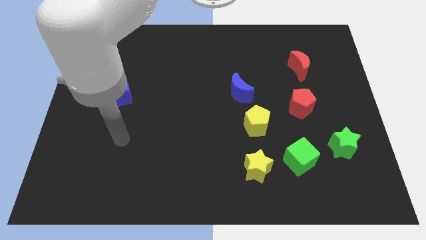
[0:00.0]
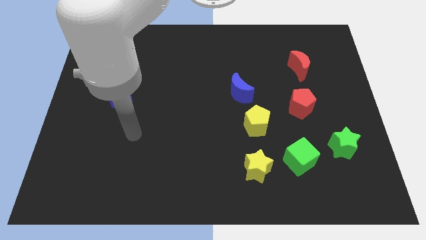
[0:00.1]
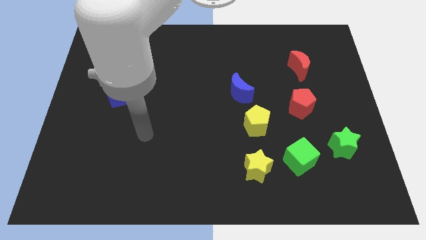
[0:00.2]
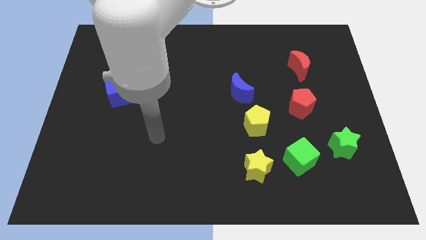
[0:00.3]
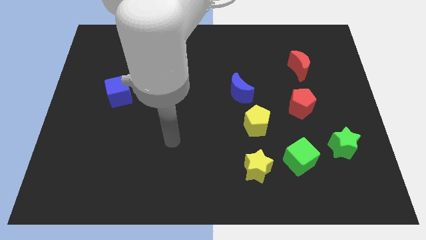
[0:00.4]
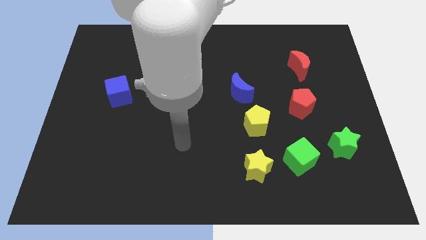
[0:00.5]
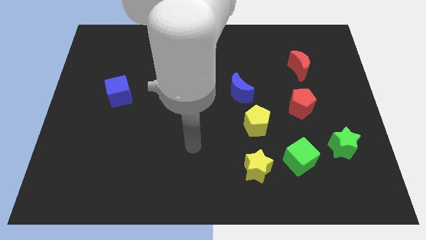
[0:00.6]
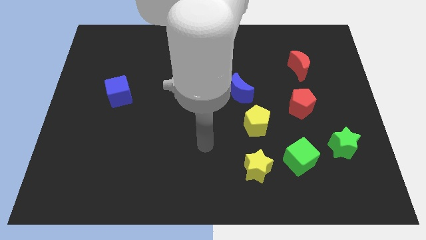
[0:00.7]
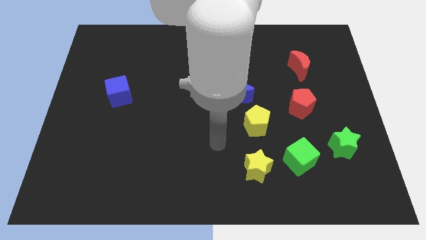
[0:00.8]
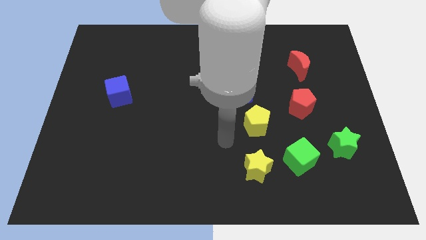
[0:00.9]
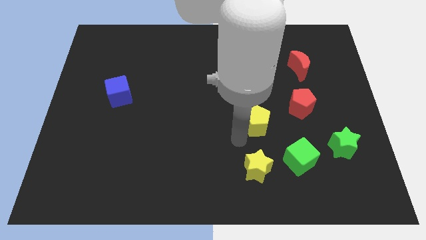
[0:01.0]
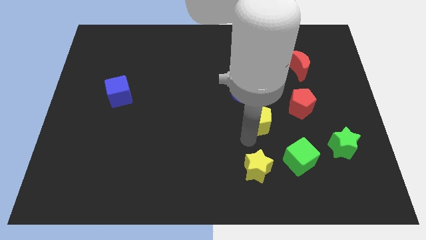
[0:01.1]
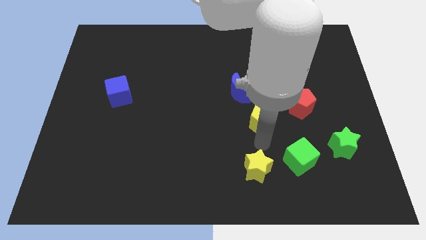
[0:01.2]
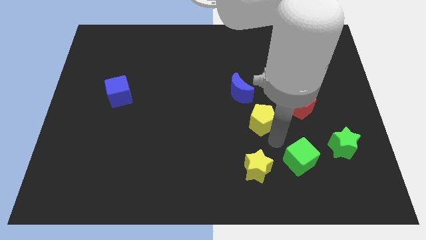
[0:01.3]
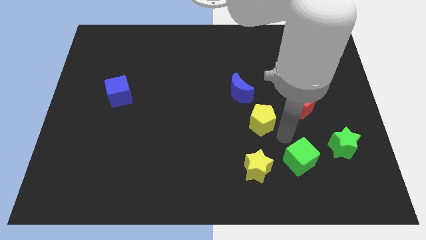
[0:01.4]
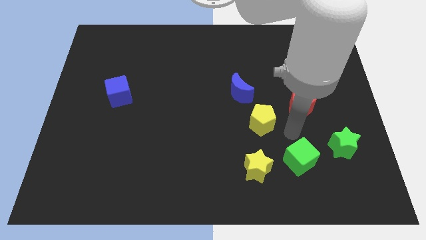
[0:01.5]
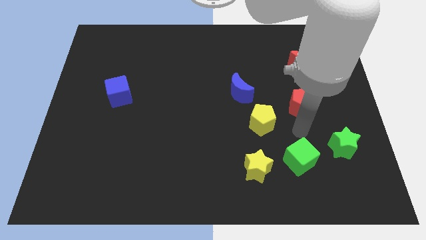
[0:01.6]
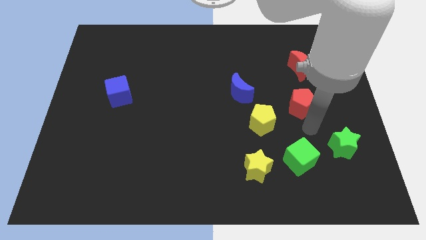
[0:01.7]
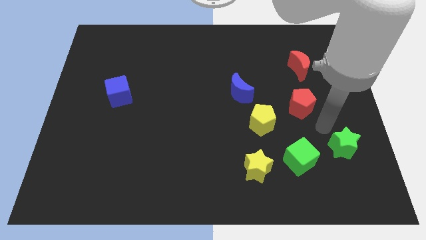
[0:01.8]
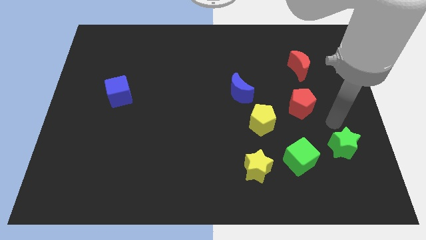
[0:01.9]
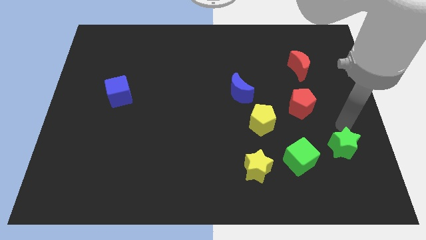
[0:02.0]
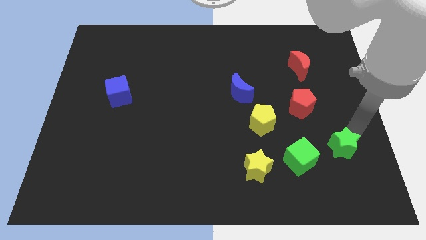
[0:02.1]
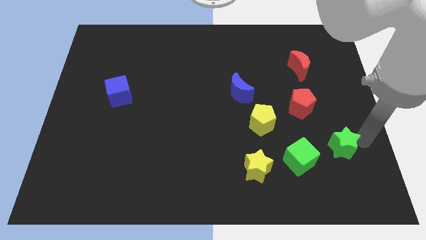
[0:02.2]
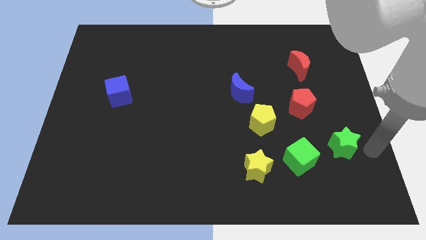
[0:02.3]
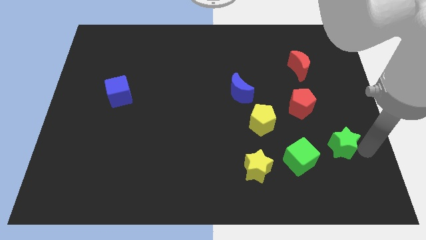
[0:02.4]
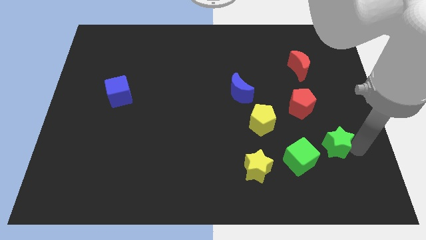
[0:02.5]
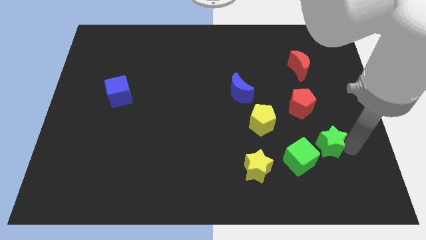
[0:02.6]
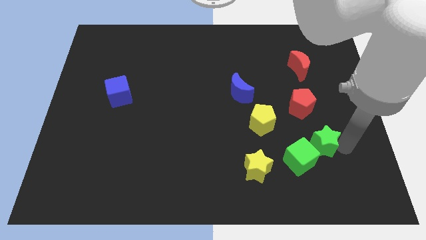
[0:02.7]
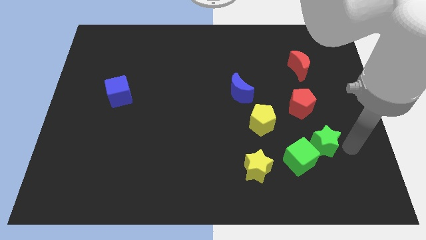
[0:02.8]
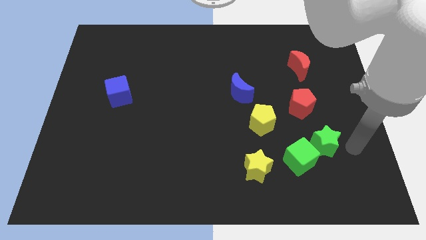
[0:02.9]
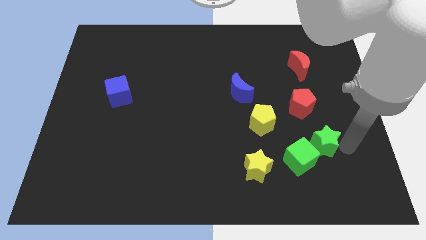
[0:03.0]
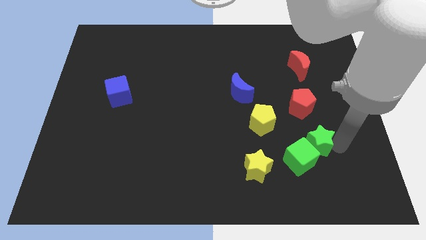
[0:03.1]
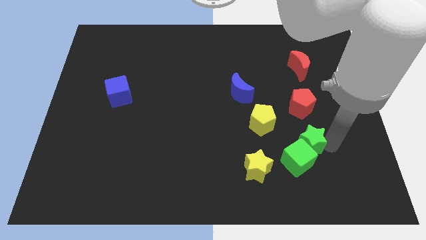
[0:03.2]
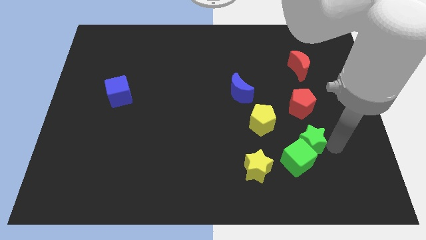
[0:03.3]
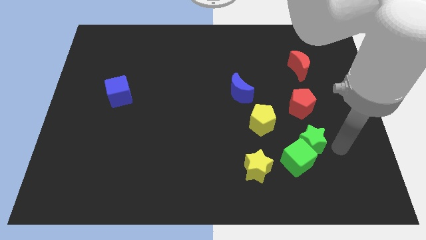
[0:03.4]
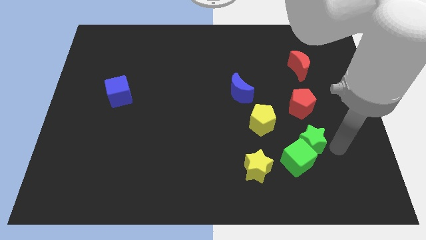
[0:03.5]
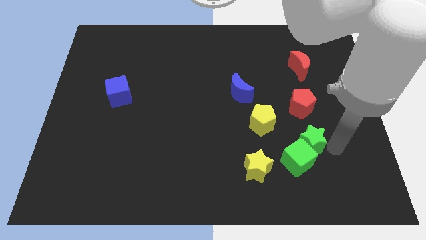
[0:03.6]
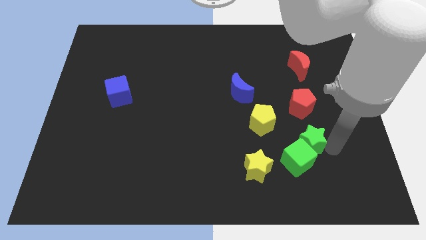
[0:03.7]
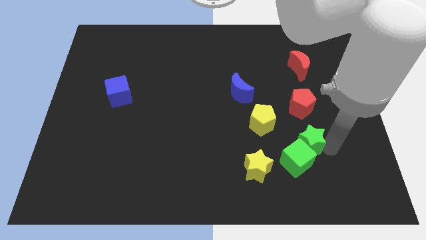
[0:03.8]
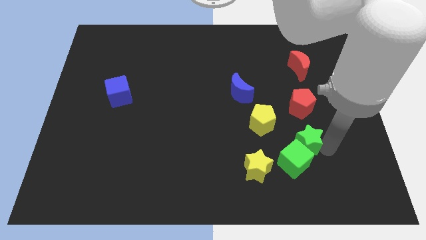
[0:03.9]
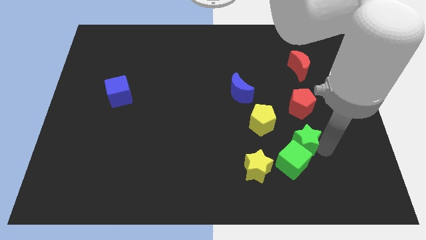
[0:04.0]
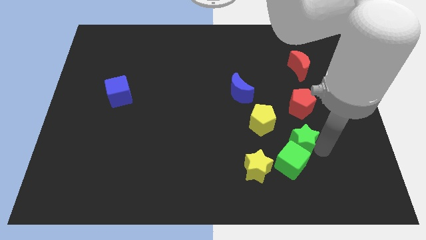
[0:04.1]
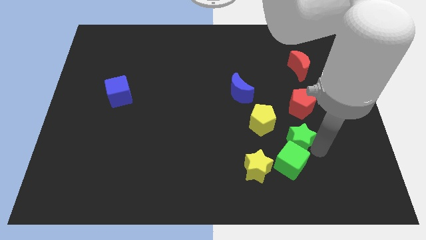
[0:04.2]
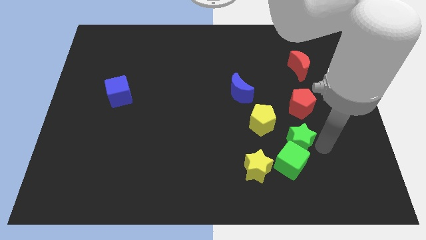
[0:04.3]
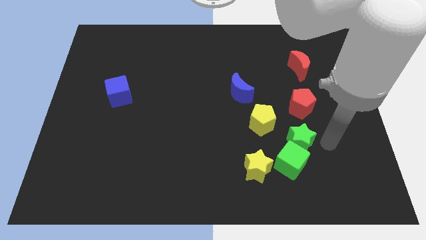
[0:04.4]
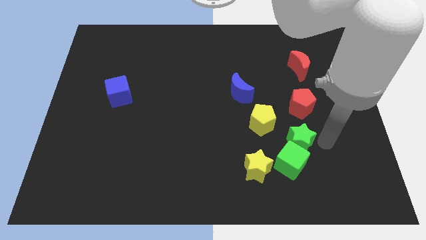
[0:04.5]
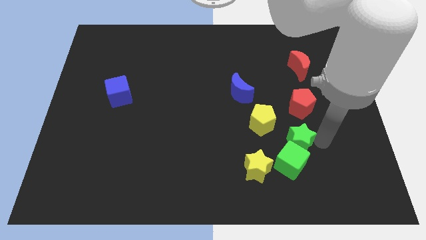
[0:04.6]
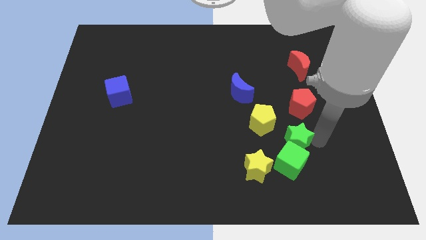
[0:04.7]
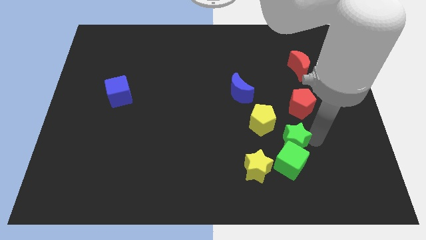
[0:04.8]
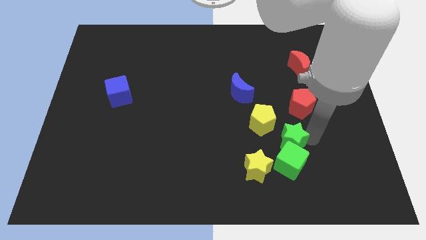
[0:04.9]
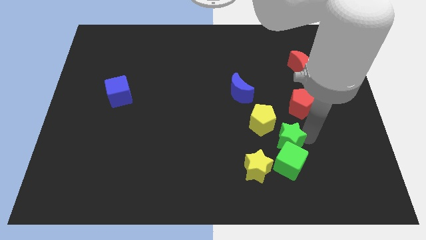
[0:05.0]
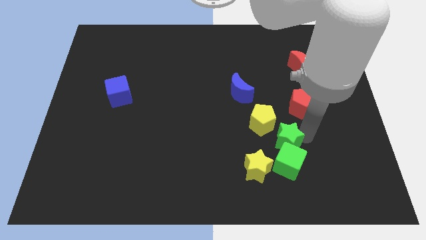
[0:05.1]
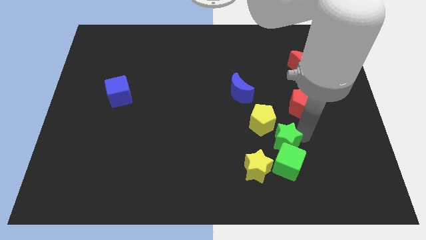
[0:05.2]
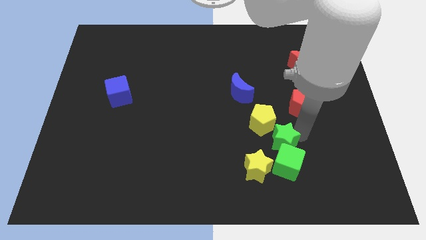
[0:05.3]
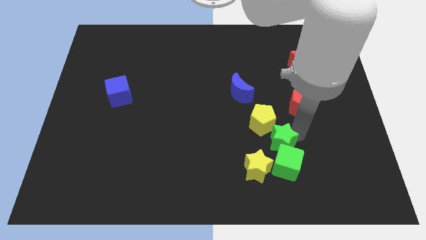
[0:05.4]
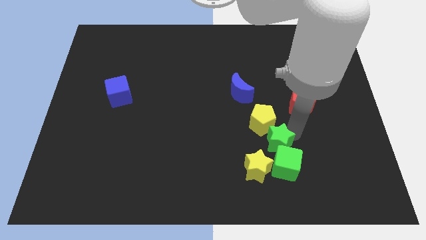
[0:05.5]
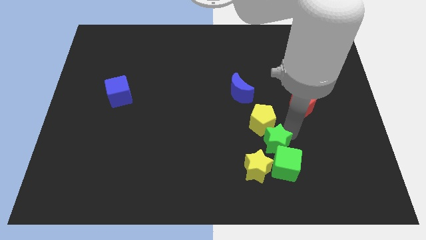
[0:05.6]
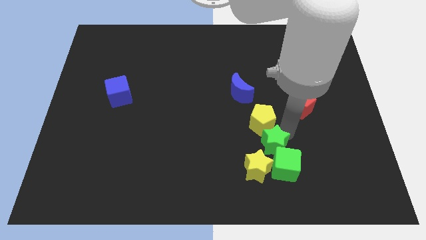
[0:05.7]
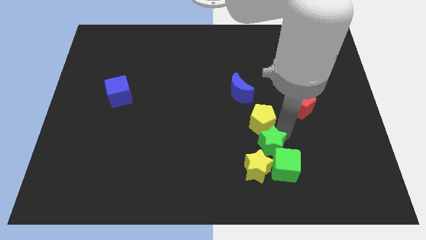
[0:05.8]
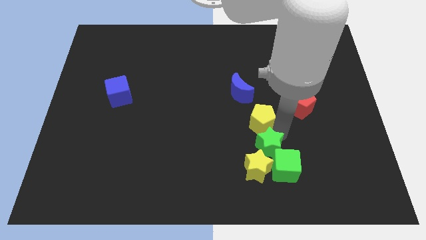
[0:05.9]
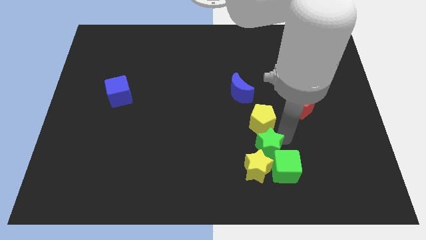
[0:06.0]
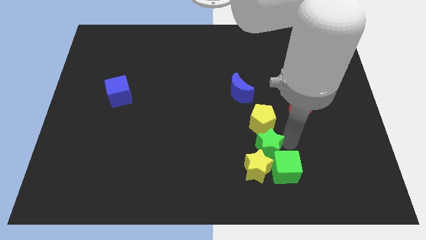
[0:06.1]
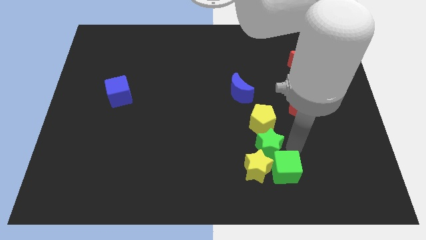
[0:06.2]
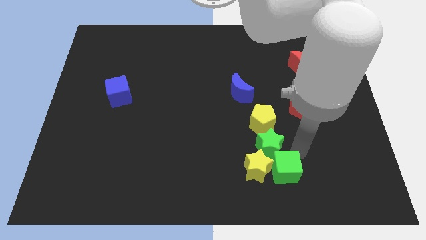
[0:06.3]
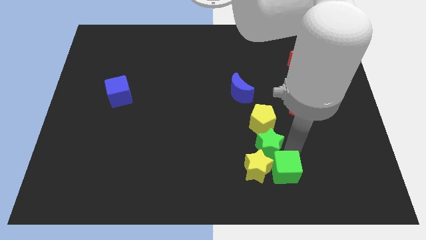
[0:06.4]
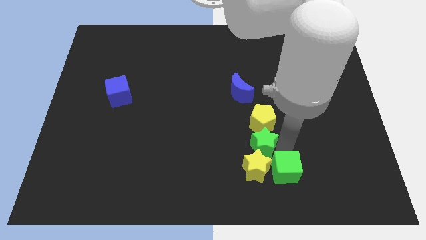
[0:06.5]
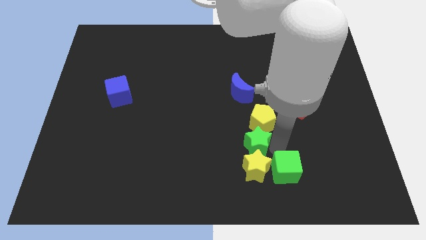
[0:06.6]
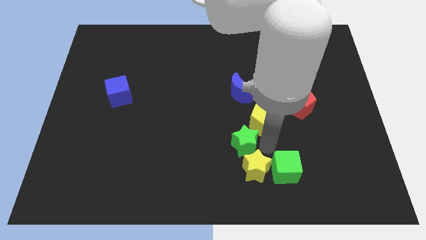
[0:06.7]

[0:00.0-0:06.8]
slide the green star left

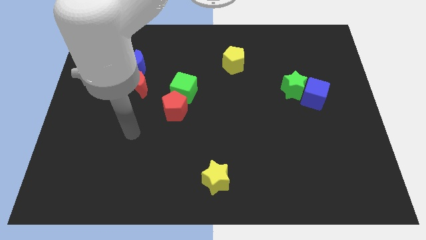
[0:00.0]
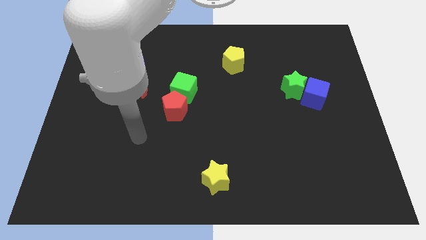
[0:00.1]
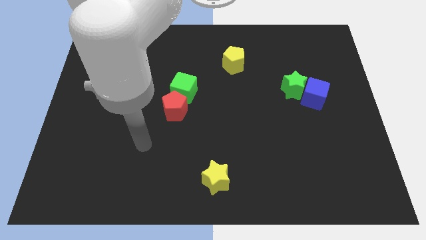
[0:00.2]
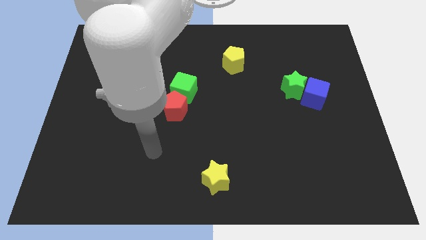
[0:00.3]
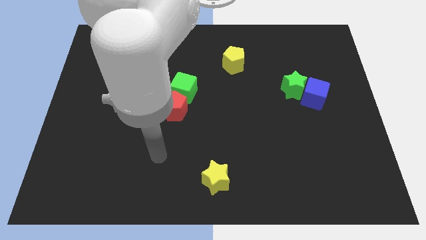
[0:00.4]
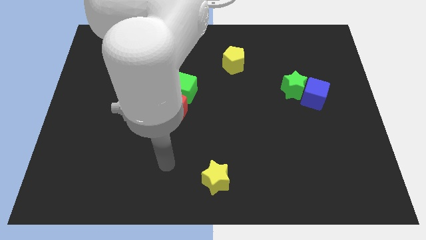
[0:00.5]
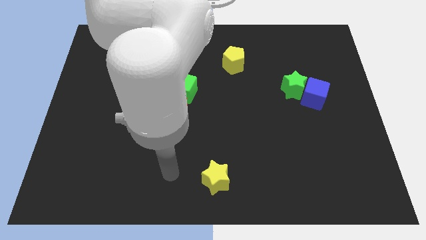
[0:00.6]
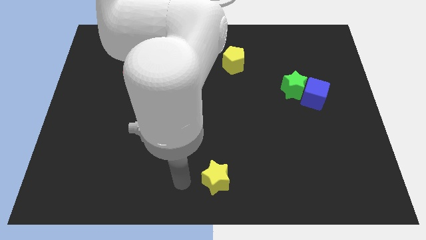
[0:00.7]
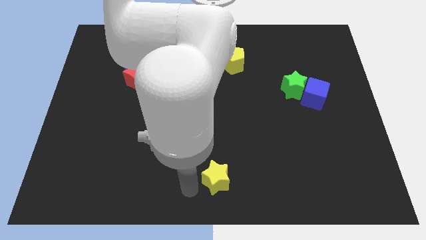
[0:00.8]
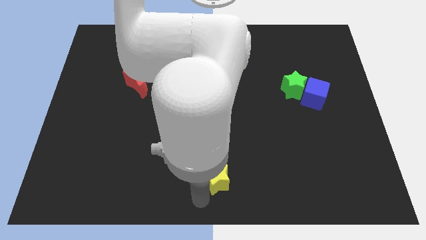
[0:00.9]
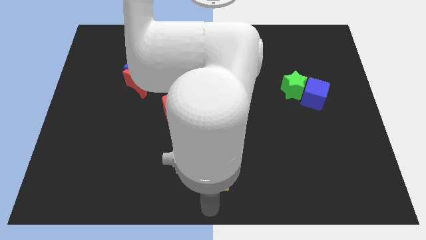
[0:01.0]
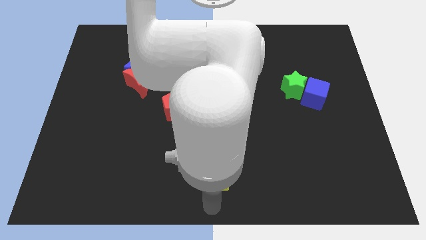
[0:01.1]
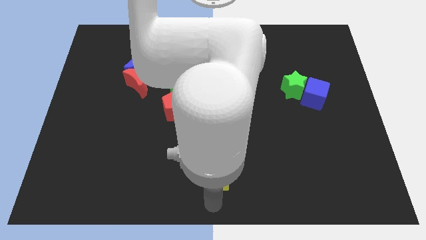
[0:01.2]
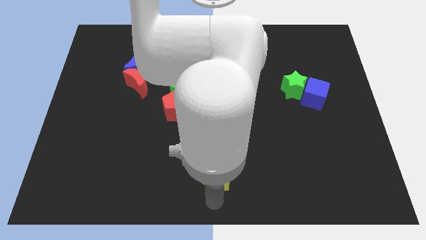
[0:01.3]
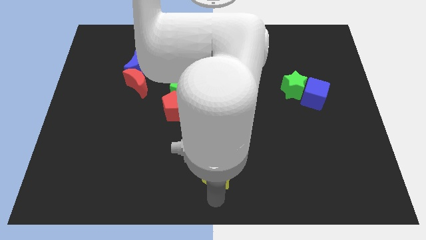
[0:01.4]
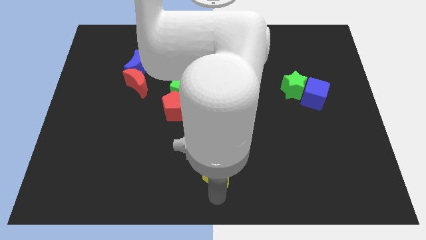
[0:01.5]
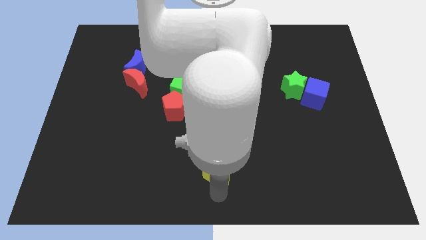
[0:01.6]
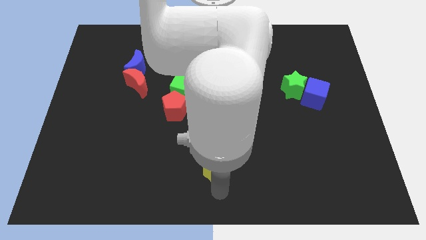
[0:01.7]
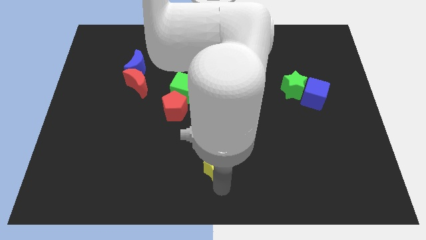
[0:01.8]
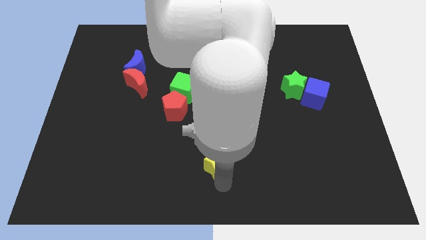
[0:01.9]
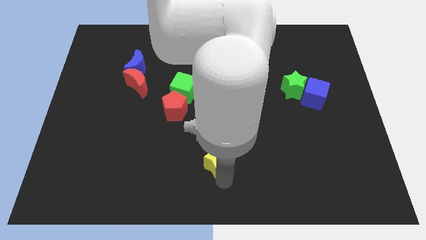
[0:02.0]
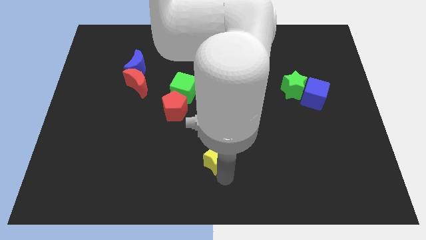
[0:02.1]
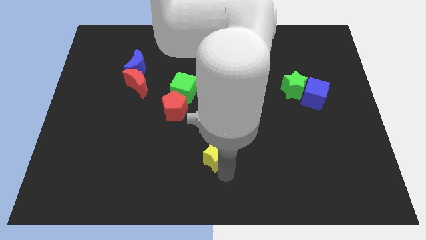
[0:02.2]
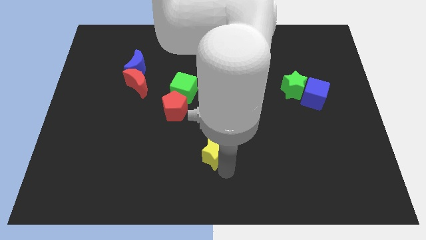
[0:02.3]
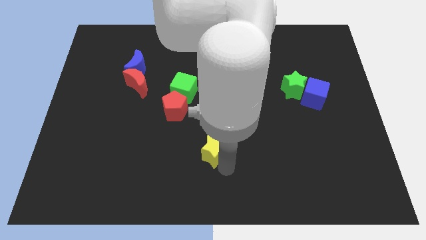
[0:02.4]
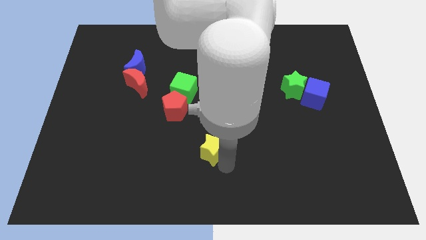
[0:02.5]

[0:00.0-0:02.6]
push the yellow star upwards a little bit
